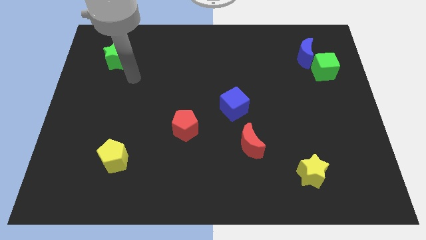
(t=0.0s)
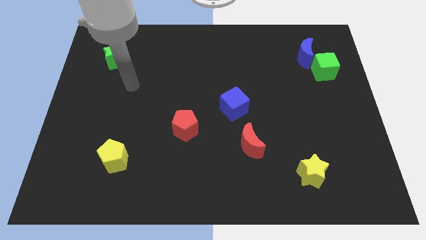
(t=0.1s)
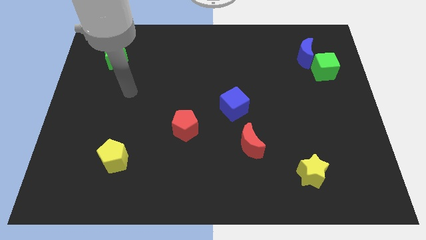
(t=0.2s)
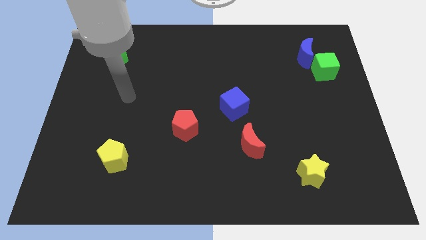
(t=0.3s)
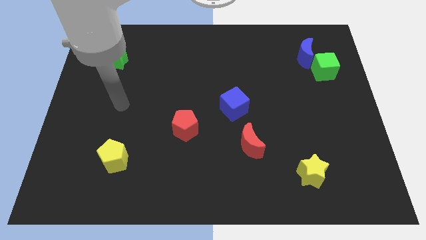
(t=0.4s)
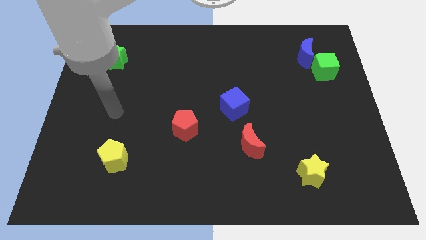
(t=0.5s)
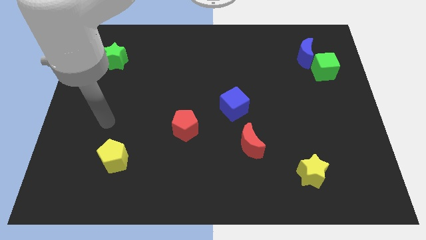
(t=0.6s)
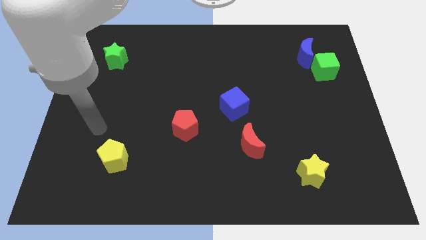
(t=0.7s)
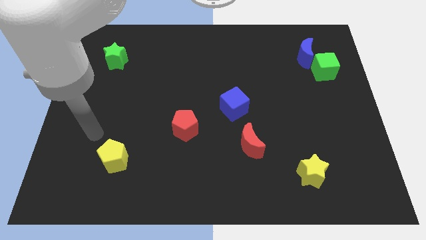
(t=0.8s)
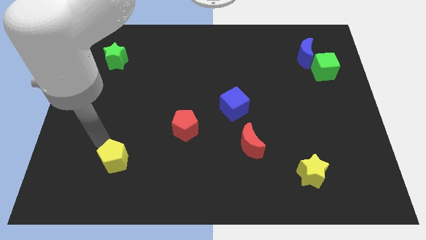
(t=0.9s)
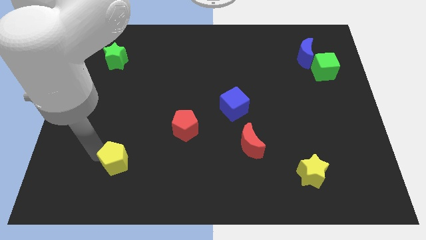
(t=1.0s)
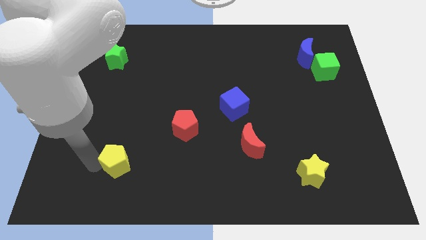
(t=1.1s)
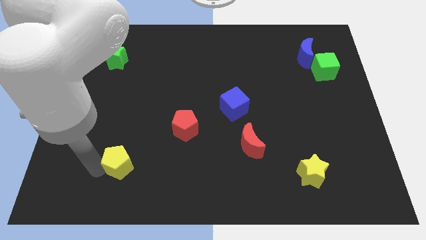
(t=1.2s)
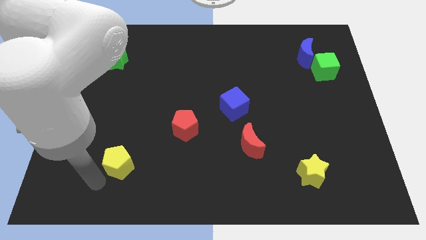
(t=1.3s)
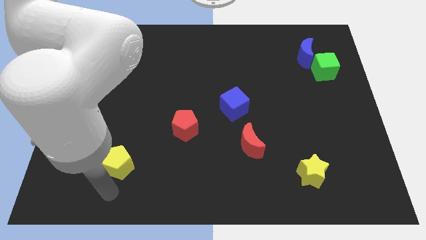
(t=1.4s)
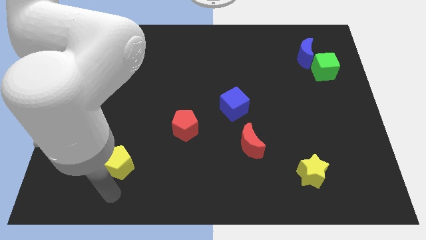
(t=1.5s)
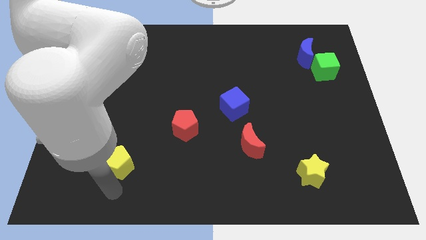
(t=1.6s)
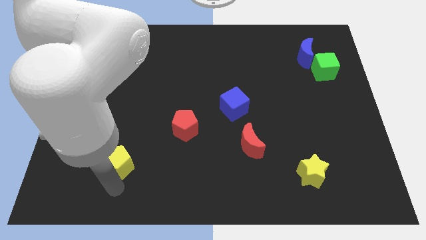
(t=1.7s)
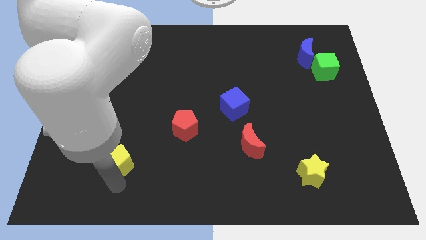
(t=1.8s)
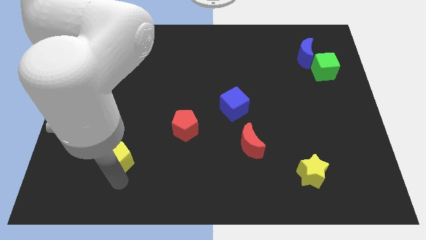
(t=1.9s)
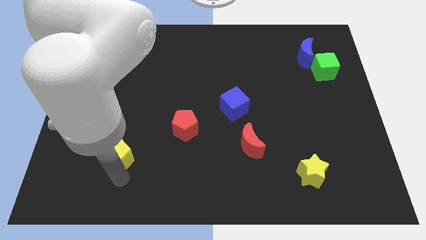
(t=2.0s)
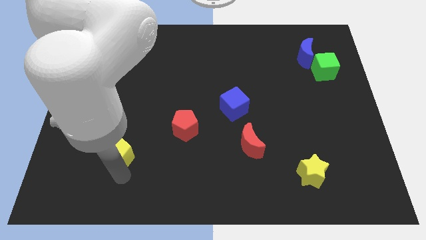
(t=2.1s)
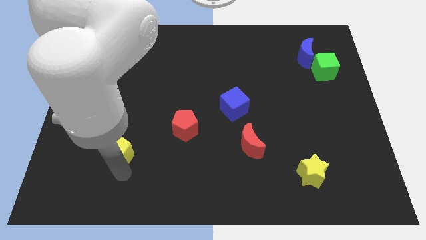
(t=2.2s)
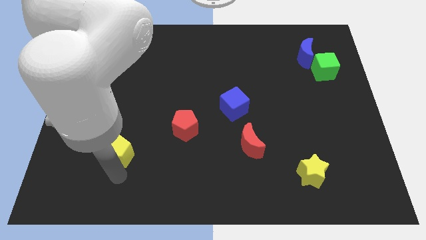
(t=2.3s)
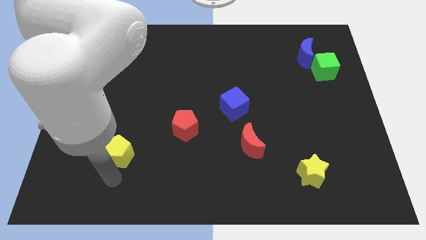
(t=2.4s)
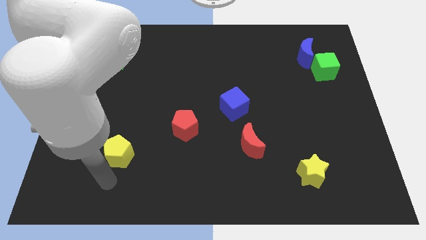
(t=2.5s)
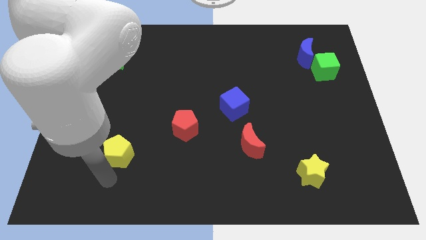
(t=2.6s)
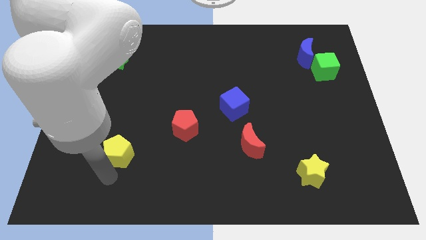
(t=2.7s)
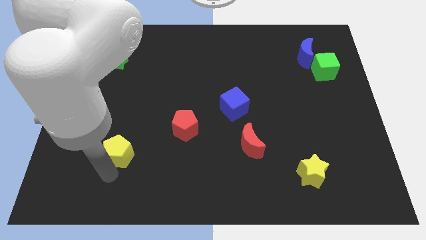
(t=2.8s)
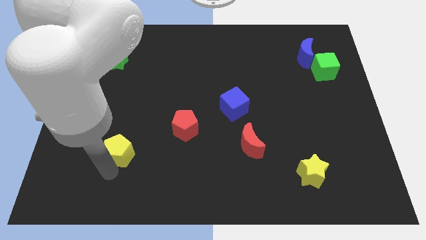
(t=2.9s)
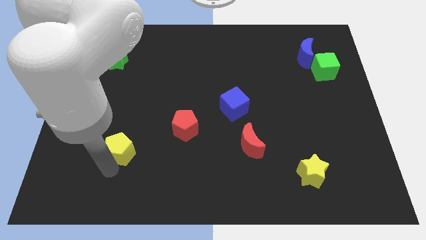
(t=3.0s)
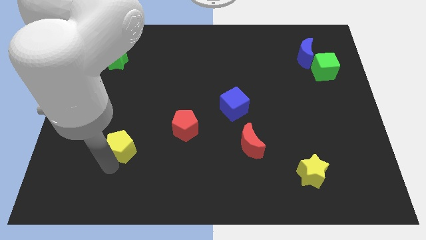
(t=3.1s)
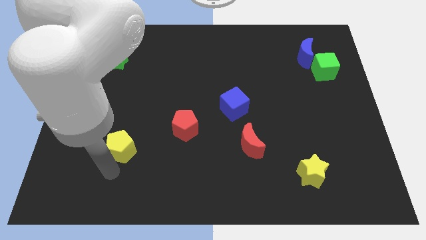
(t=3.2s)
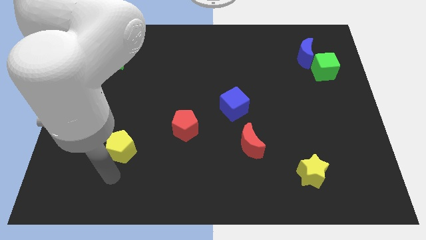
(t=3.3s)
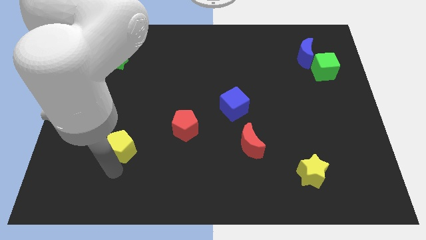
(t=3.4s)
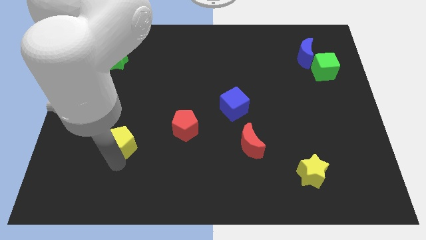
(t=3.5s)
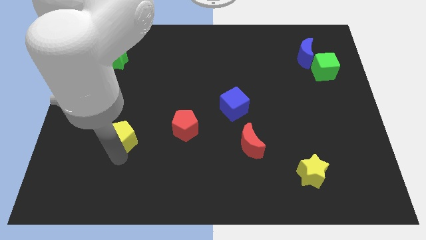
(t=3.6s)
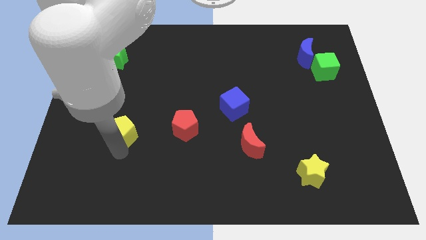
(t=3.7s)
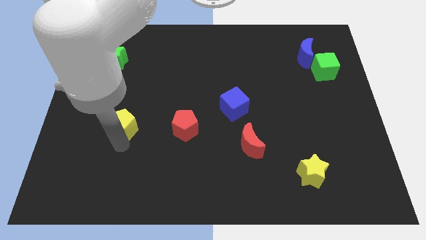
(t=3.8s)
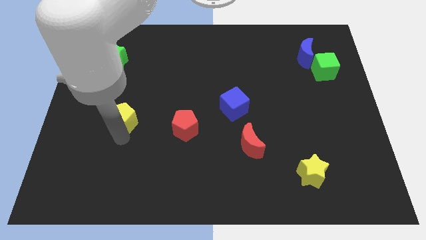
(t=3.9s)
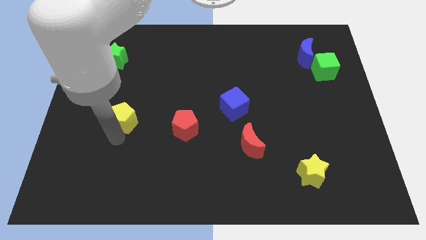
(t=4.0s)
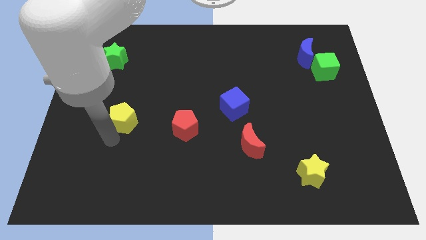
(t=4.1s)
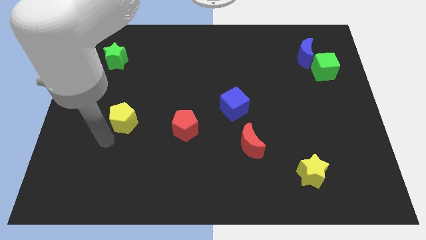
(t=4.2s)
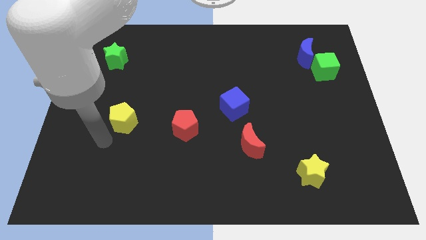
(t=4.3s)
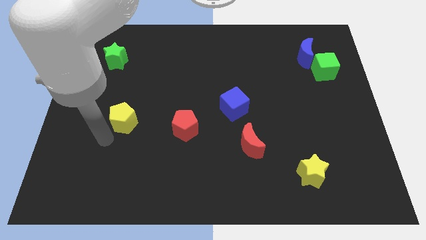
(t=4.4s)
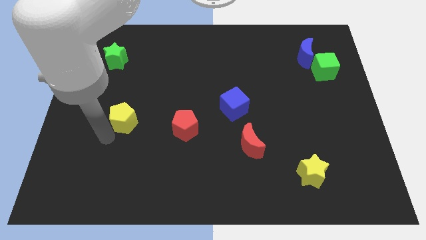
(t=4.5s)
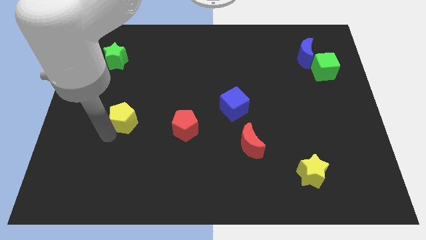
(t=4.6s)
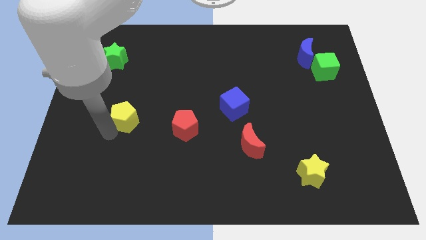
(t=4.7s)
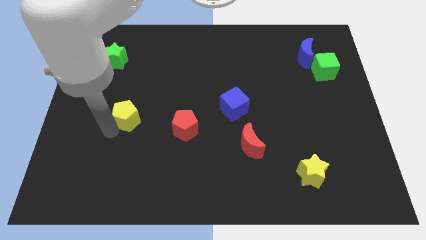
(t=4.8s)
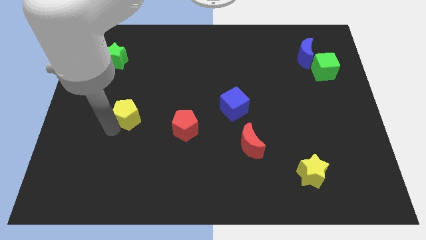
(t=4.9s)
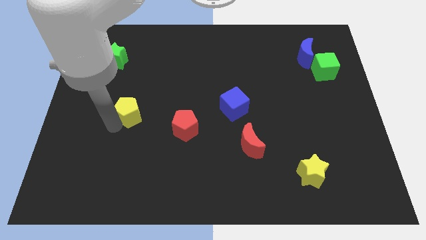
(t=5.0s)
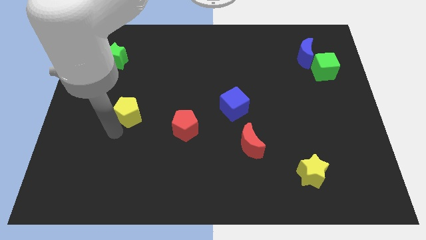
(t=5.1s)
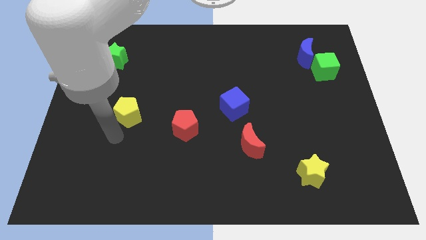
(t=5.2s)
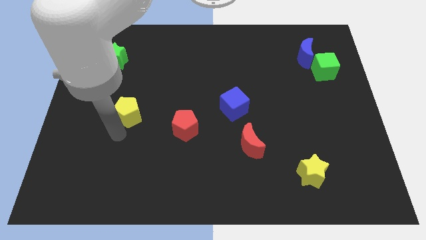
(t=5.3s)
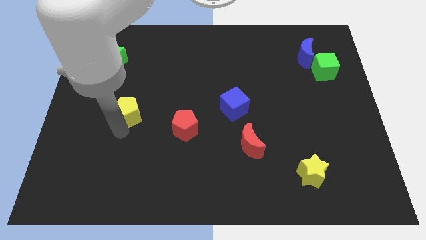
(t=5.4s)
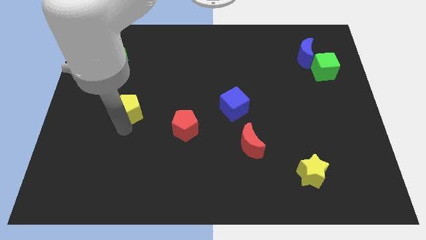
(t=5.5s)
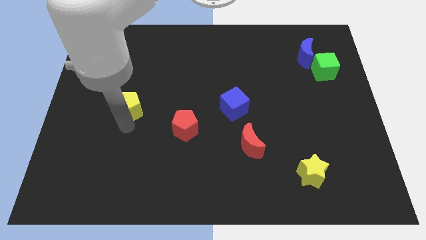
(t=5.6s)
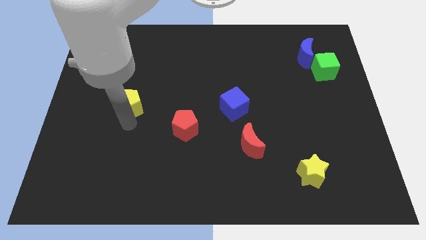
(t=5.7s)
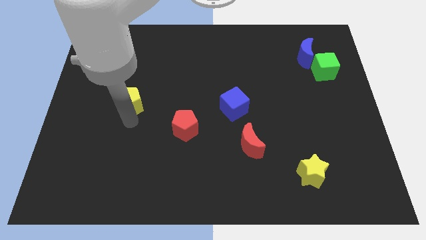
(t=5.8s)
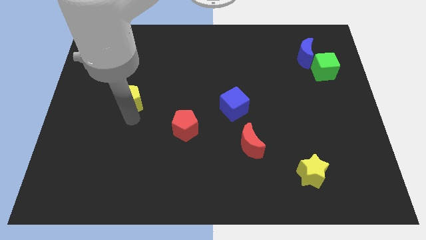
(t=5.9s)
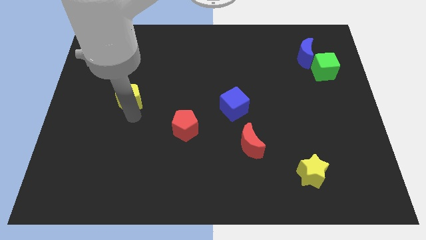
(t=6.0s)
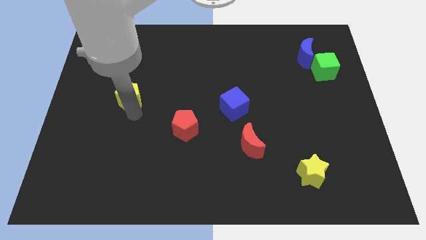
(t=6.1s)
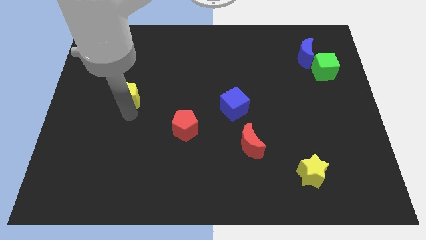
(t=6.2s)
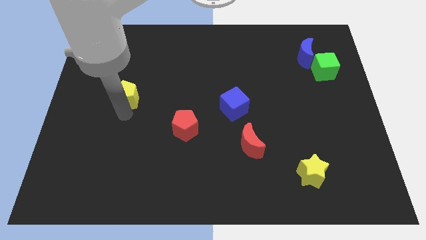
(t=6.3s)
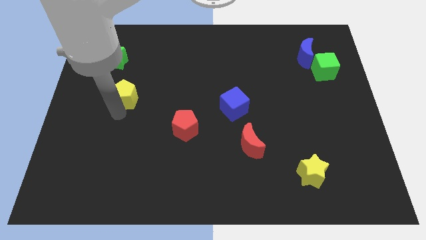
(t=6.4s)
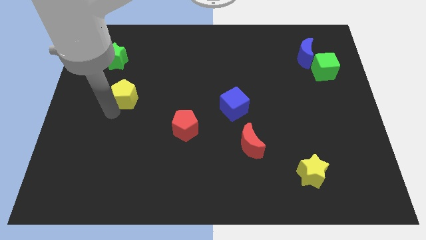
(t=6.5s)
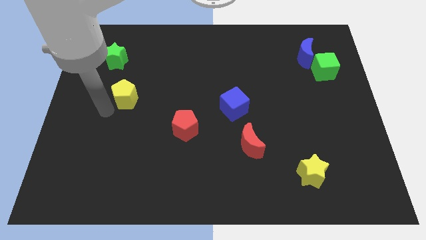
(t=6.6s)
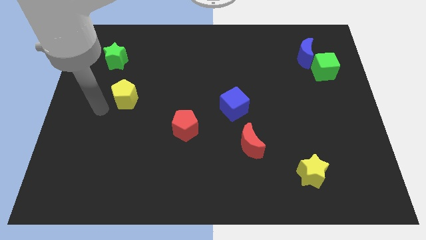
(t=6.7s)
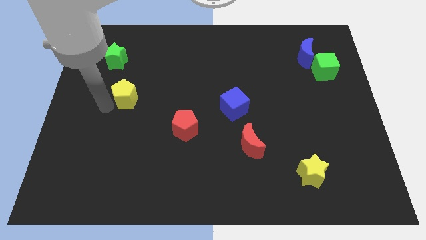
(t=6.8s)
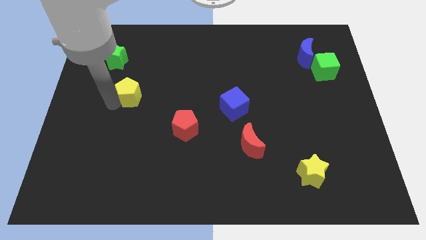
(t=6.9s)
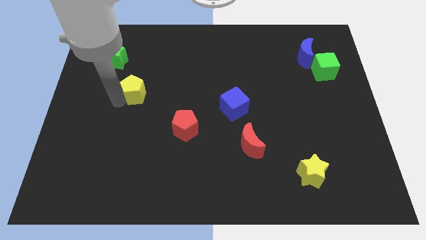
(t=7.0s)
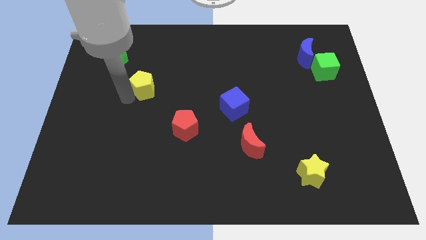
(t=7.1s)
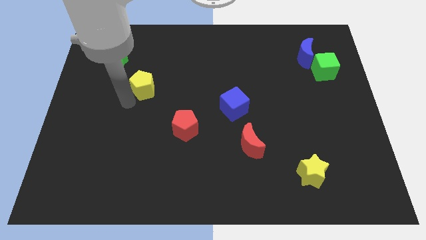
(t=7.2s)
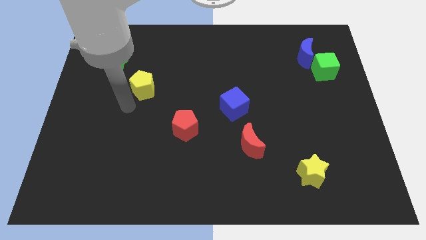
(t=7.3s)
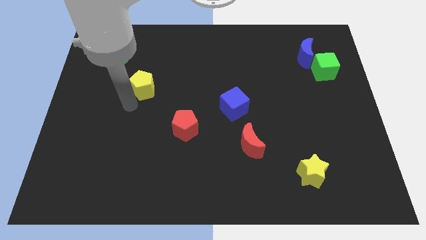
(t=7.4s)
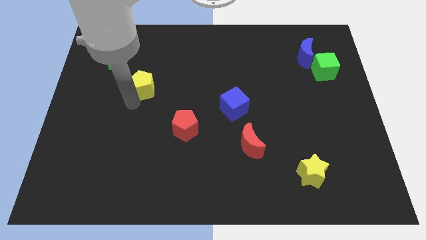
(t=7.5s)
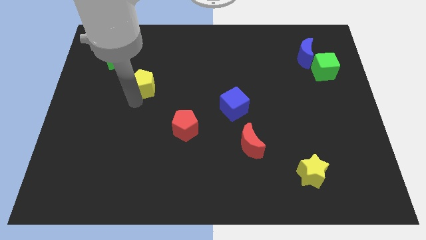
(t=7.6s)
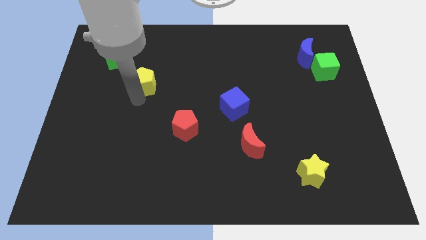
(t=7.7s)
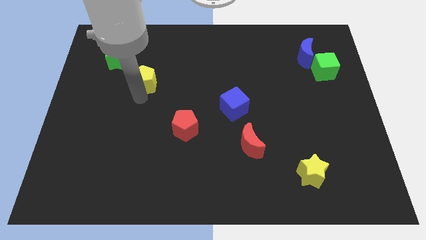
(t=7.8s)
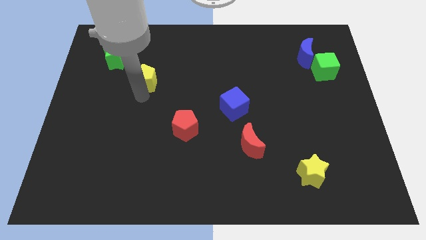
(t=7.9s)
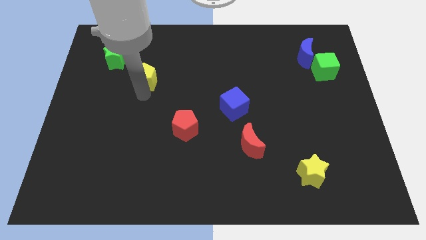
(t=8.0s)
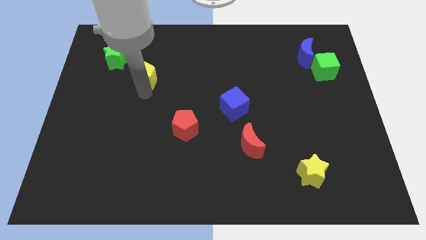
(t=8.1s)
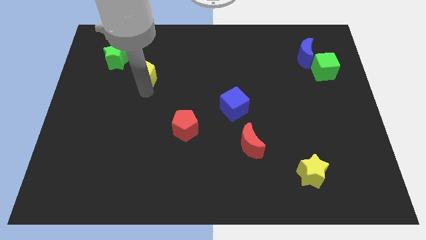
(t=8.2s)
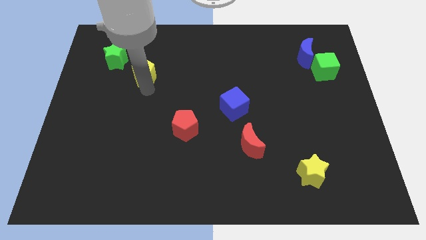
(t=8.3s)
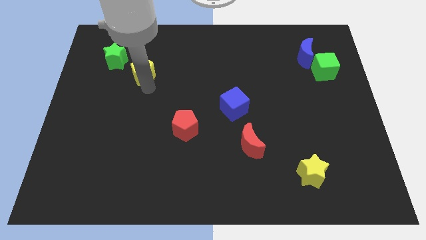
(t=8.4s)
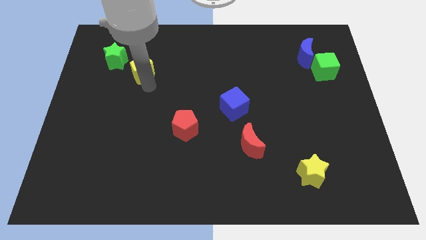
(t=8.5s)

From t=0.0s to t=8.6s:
move the yellow pentagon right of the green star
